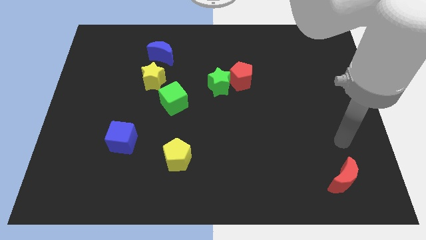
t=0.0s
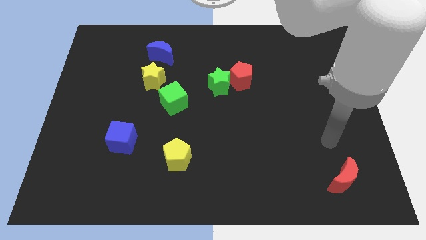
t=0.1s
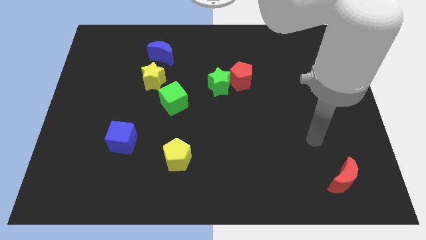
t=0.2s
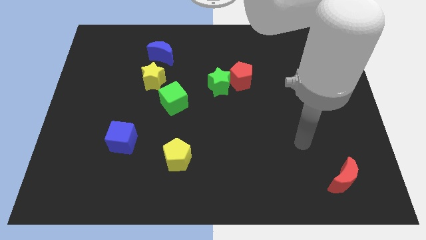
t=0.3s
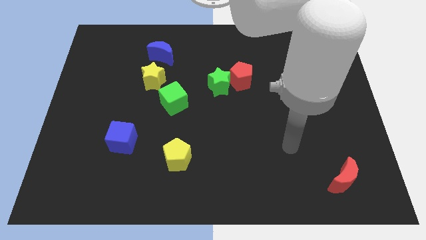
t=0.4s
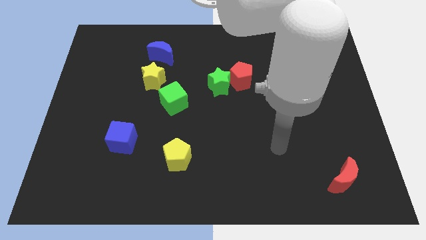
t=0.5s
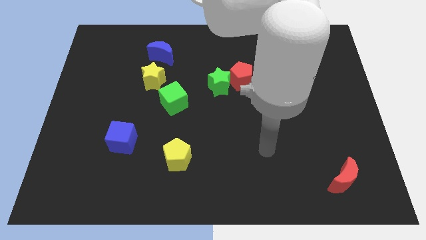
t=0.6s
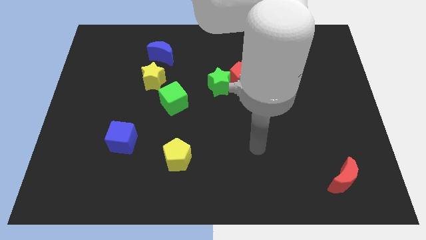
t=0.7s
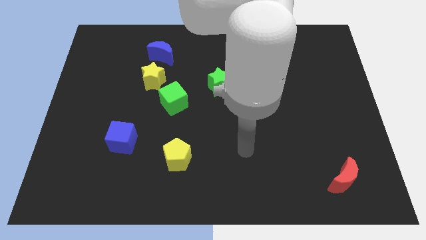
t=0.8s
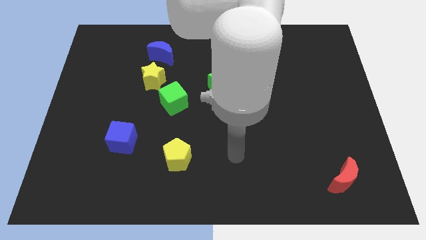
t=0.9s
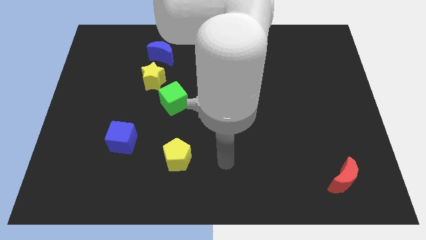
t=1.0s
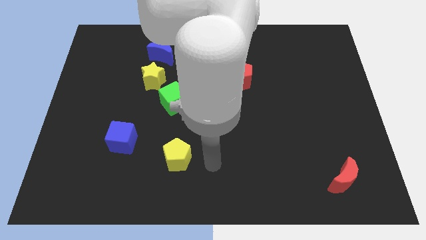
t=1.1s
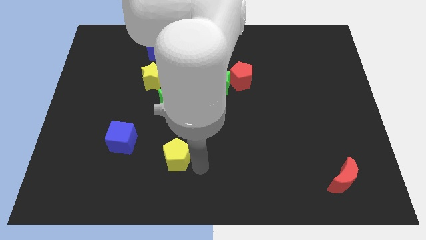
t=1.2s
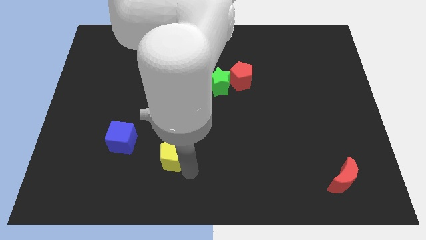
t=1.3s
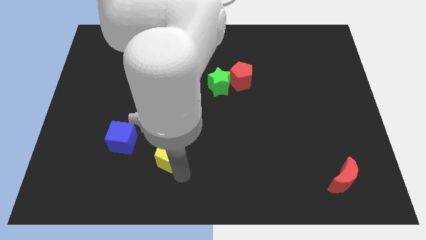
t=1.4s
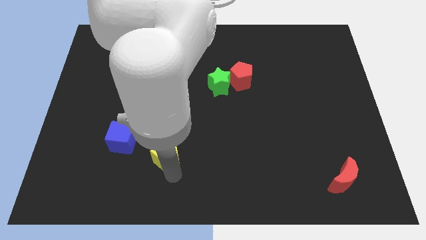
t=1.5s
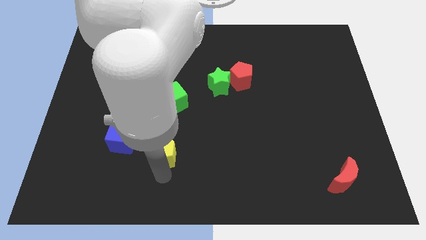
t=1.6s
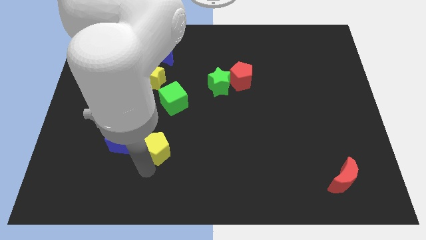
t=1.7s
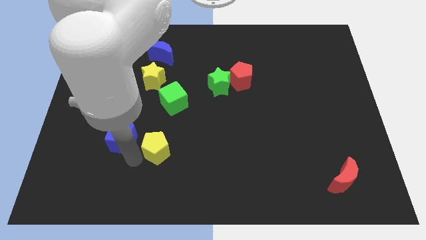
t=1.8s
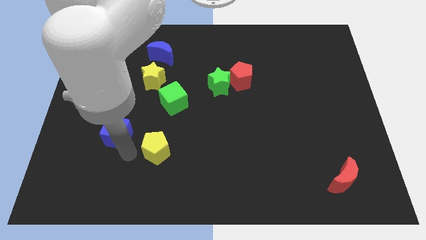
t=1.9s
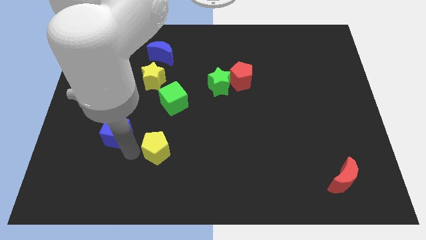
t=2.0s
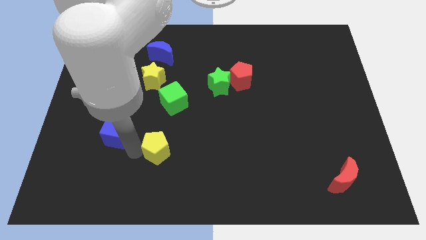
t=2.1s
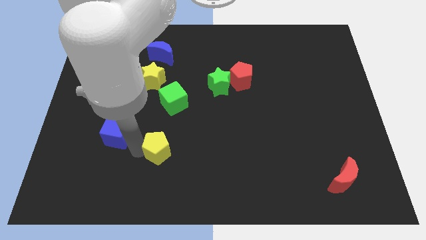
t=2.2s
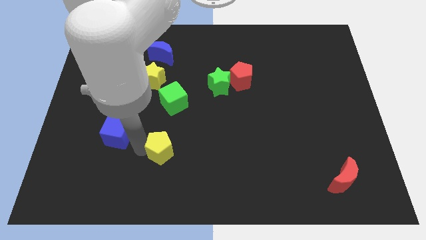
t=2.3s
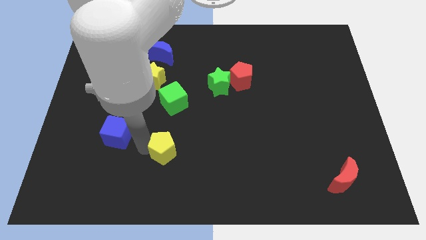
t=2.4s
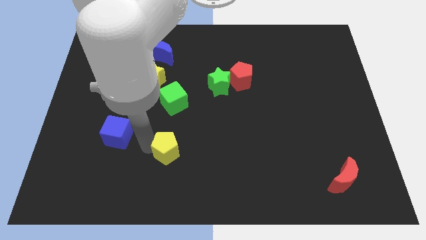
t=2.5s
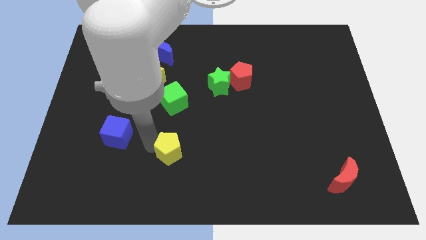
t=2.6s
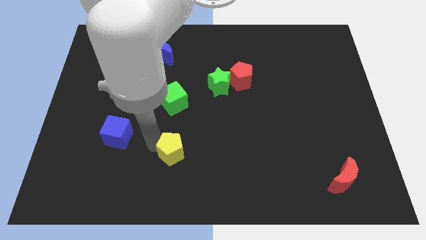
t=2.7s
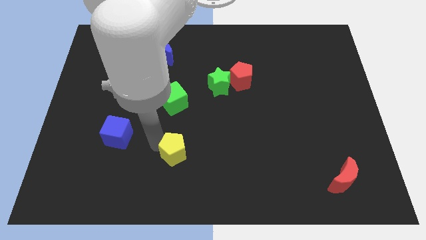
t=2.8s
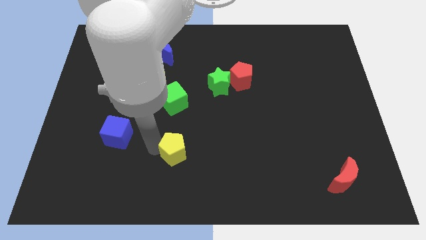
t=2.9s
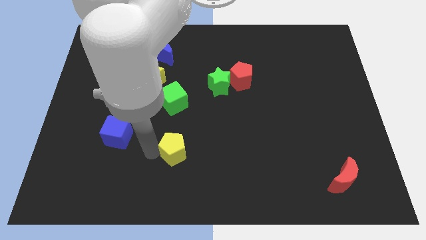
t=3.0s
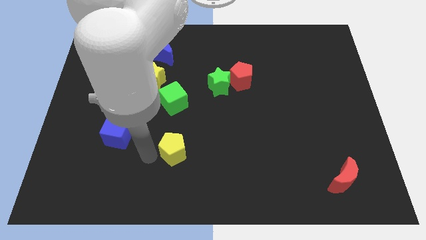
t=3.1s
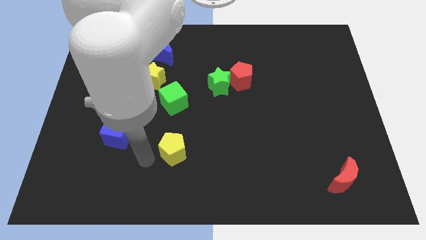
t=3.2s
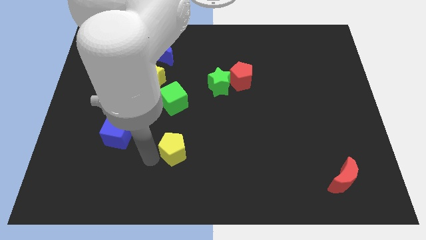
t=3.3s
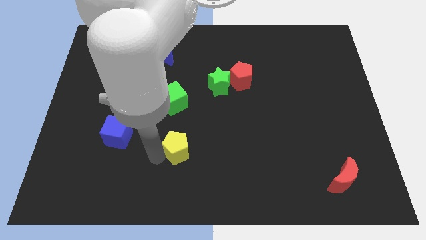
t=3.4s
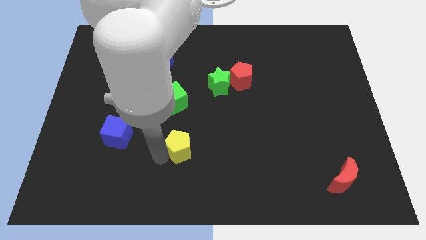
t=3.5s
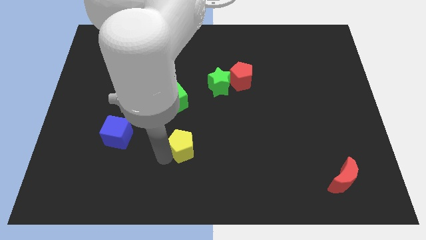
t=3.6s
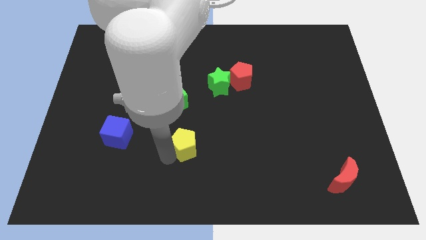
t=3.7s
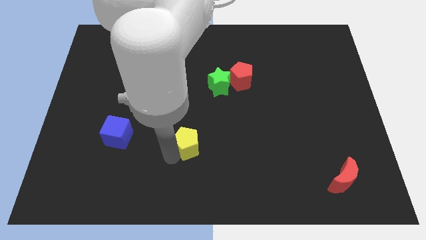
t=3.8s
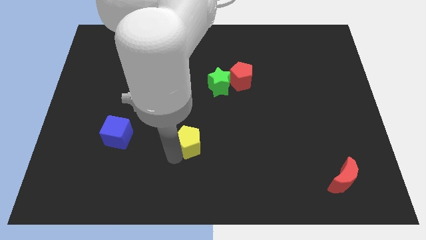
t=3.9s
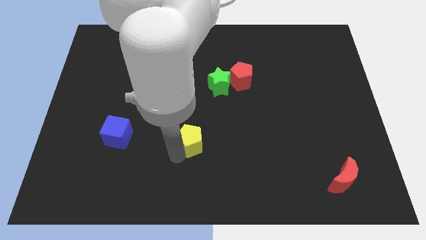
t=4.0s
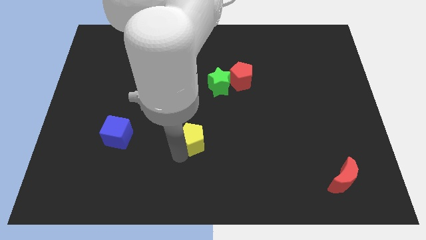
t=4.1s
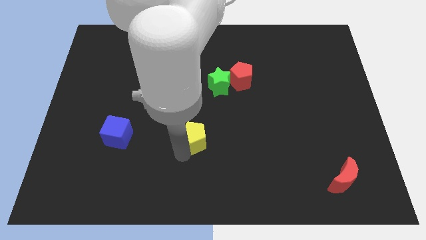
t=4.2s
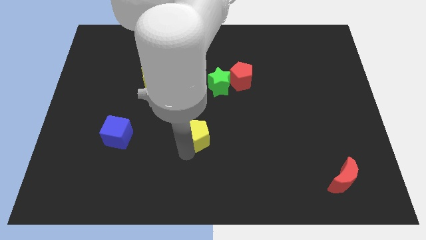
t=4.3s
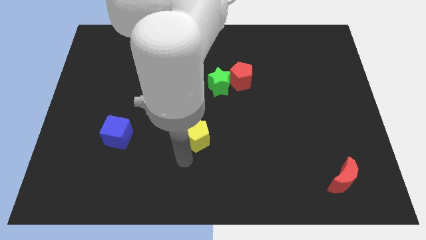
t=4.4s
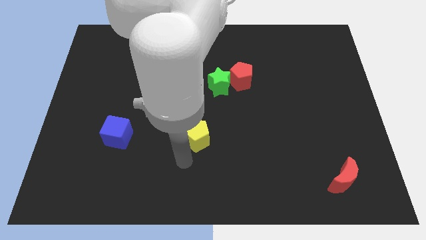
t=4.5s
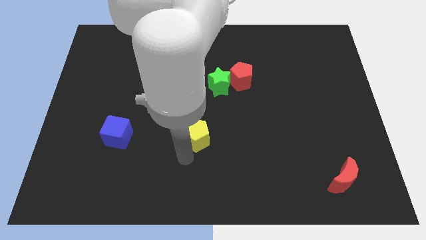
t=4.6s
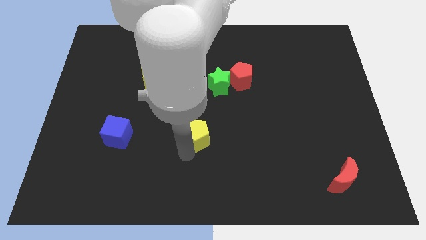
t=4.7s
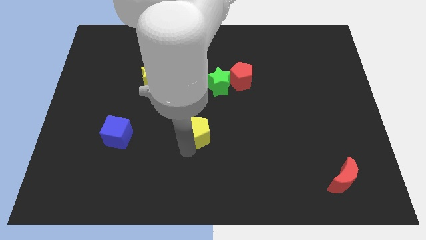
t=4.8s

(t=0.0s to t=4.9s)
slide the yellow pentagon a little bit up and then to the right

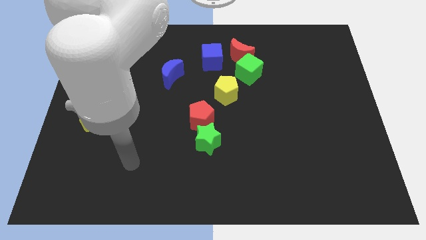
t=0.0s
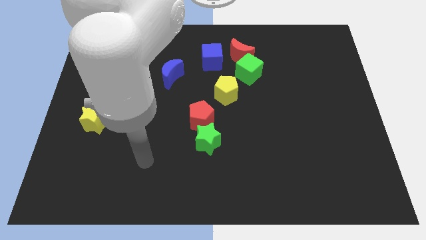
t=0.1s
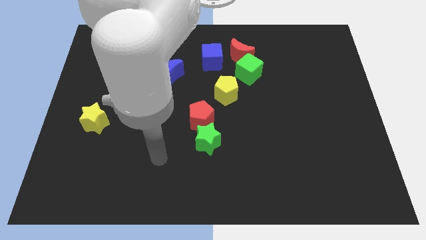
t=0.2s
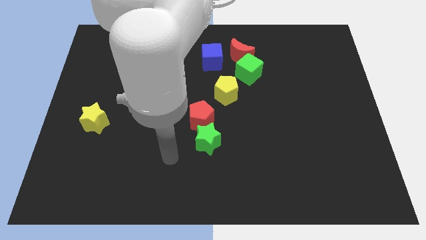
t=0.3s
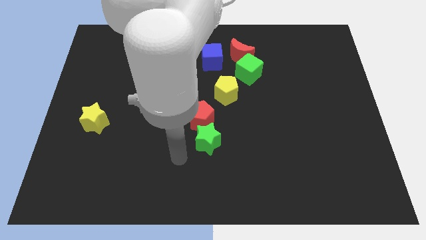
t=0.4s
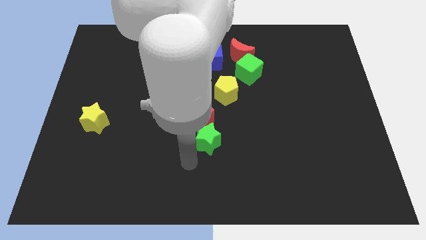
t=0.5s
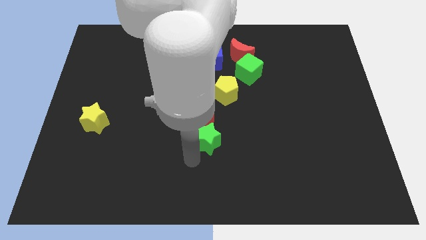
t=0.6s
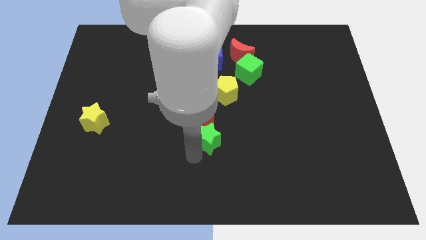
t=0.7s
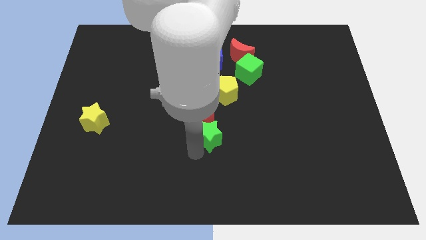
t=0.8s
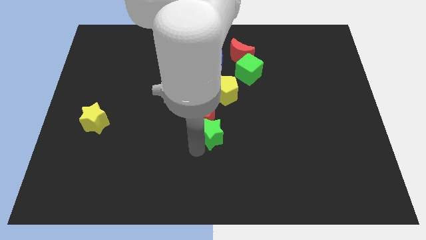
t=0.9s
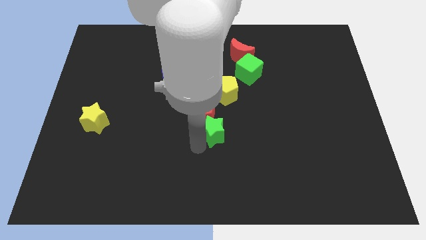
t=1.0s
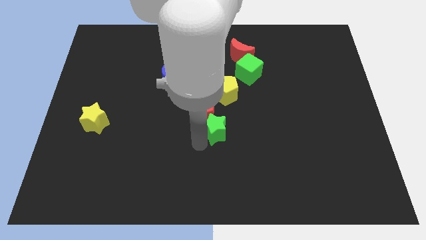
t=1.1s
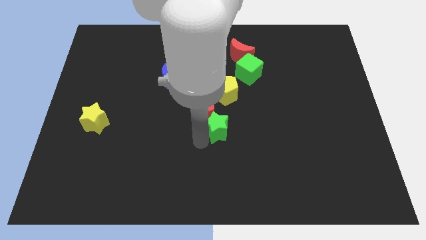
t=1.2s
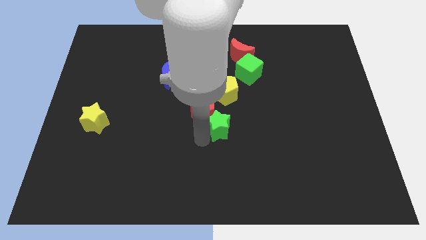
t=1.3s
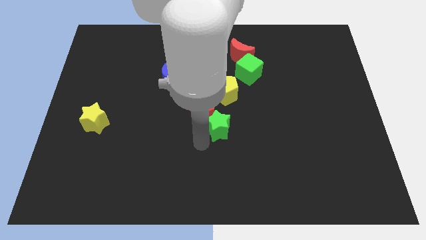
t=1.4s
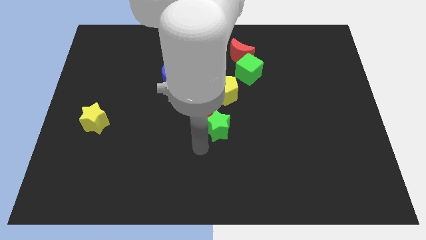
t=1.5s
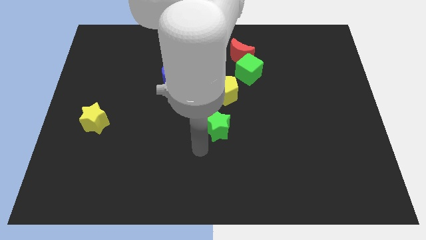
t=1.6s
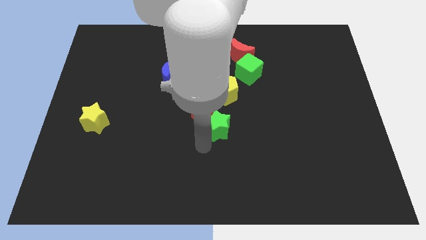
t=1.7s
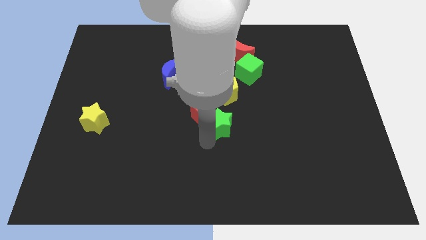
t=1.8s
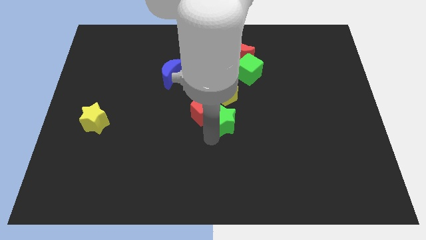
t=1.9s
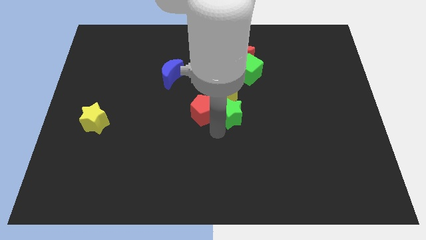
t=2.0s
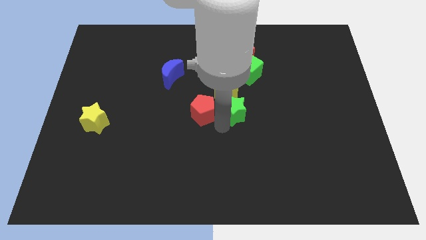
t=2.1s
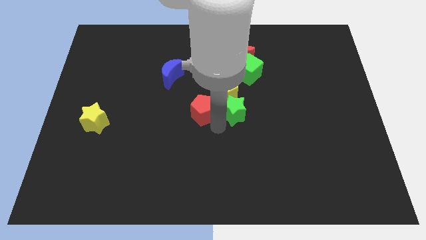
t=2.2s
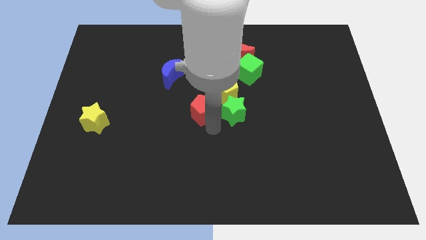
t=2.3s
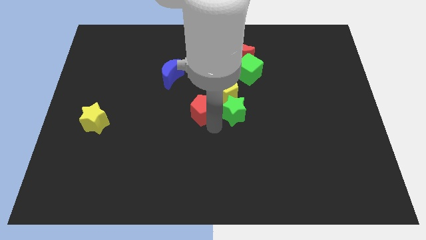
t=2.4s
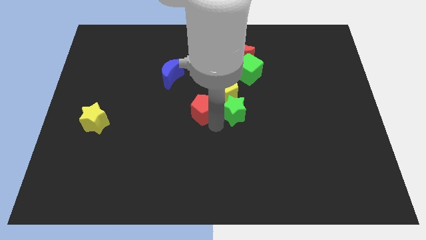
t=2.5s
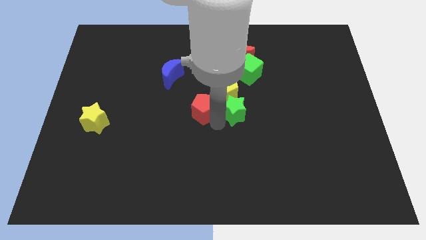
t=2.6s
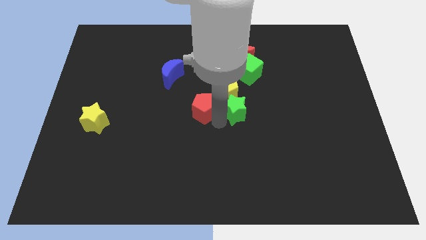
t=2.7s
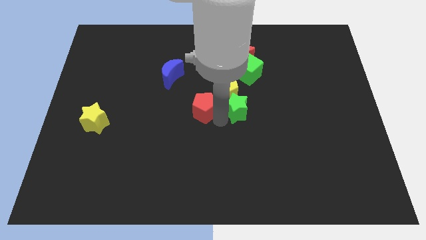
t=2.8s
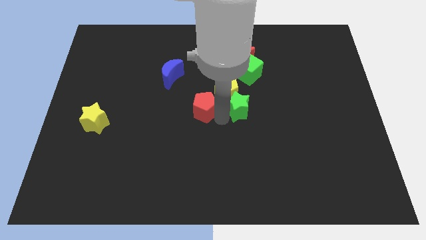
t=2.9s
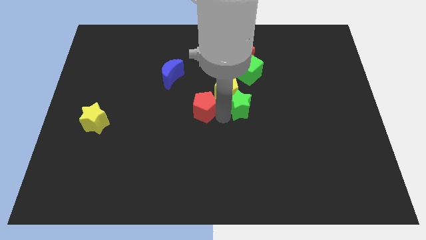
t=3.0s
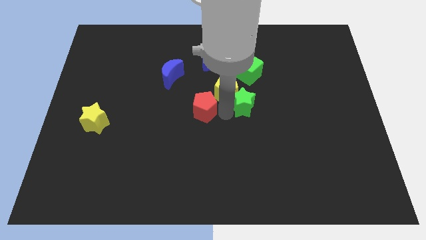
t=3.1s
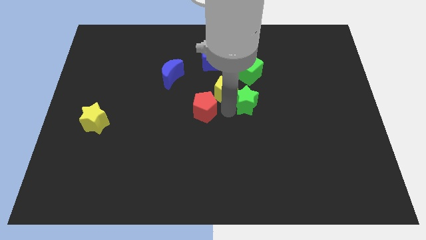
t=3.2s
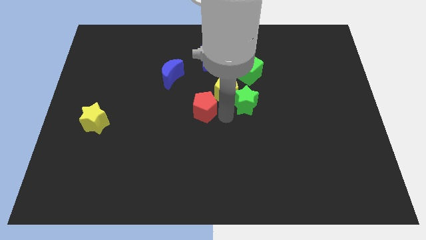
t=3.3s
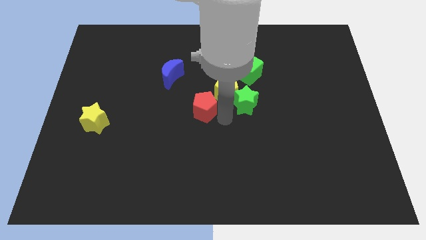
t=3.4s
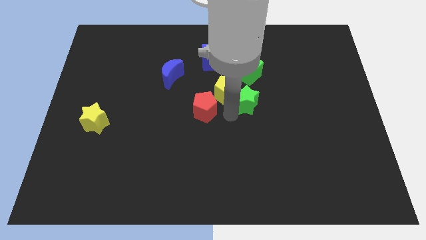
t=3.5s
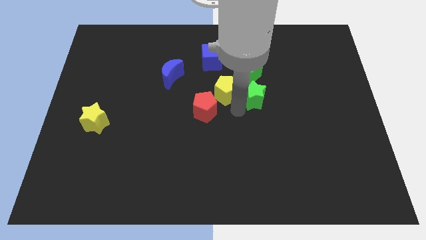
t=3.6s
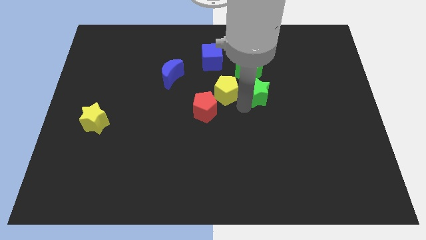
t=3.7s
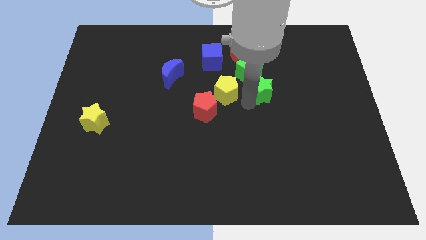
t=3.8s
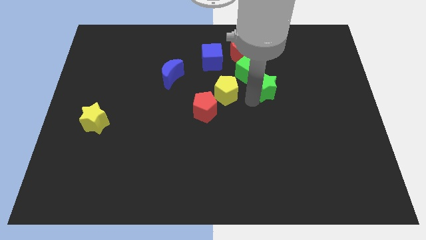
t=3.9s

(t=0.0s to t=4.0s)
push the green star upwards and then to the right
